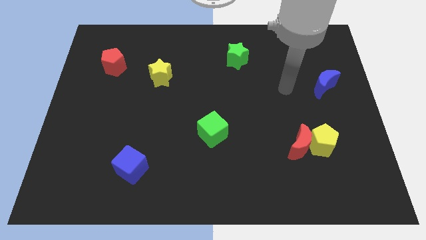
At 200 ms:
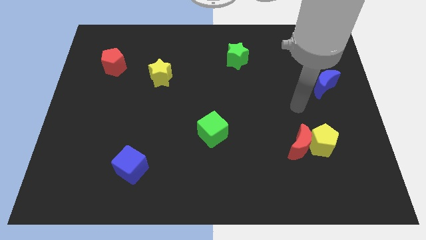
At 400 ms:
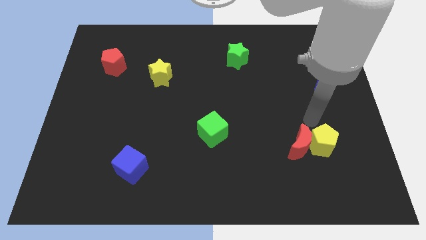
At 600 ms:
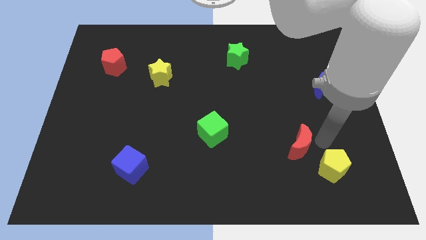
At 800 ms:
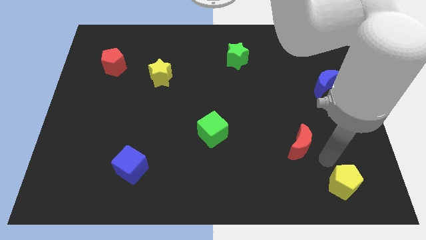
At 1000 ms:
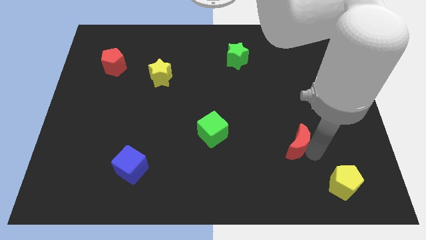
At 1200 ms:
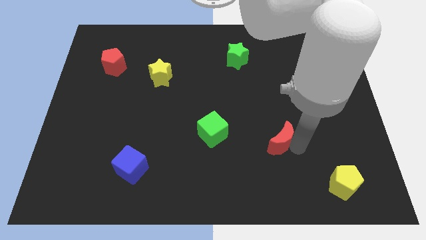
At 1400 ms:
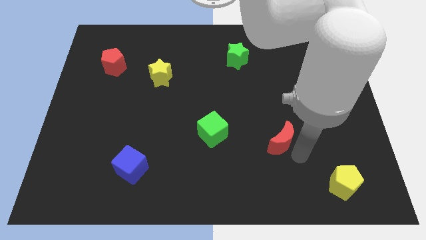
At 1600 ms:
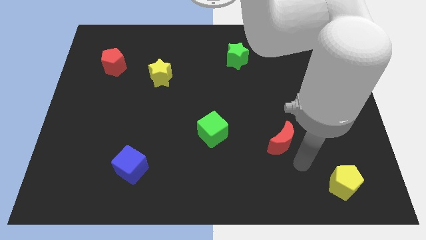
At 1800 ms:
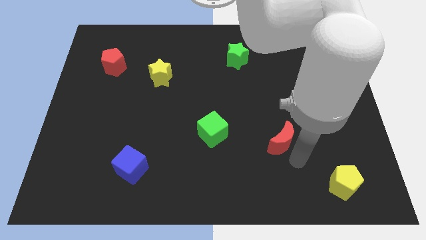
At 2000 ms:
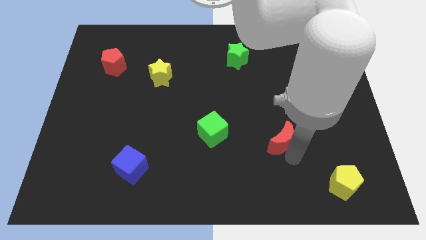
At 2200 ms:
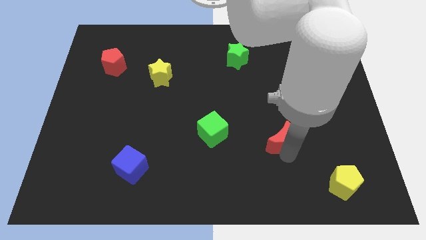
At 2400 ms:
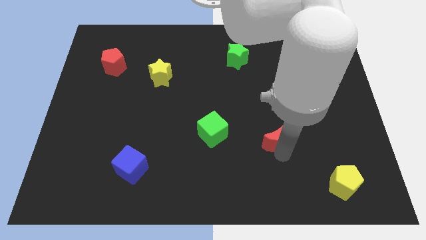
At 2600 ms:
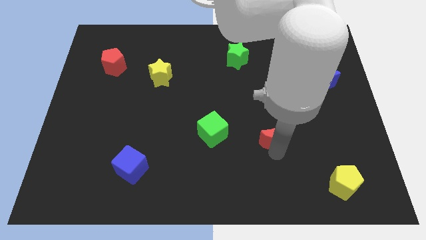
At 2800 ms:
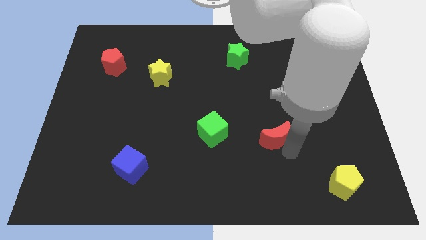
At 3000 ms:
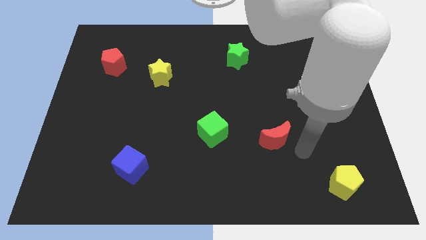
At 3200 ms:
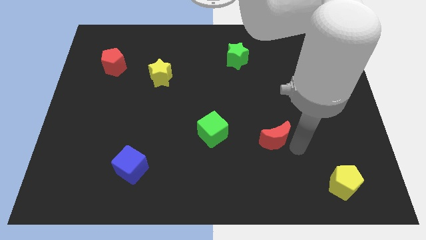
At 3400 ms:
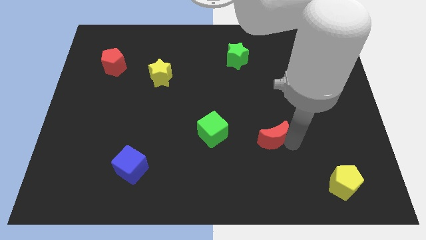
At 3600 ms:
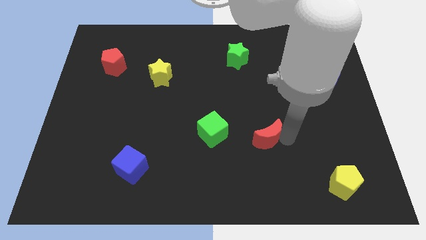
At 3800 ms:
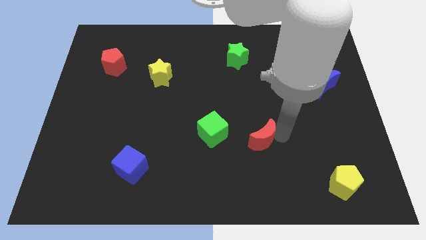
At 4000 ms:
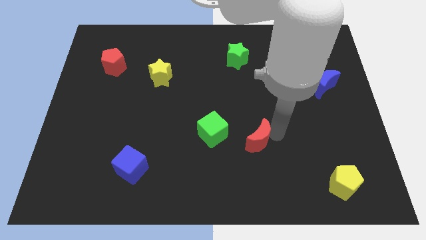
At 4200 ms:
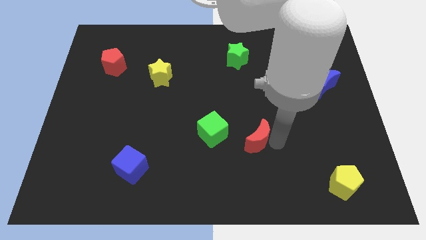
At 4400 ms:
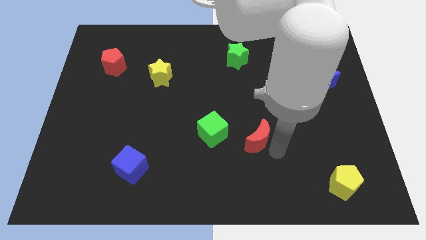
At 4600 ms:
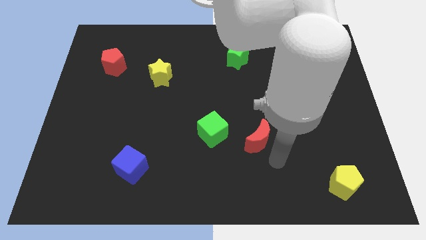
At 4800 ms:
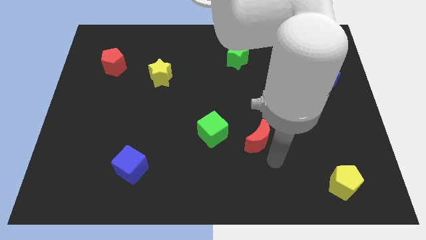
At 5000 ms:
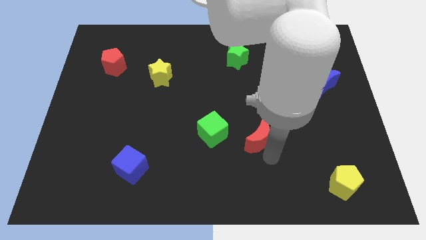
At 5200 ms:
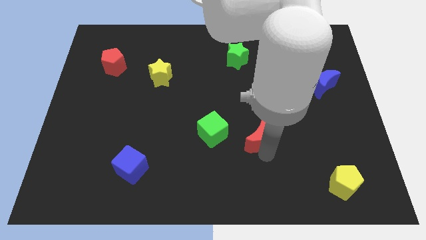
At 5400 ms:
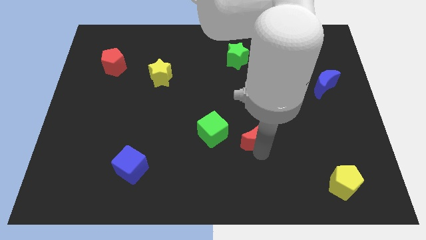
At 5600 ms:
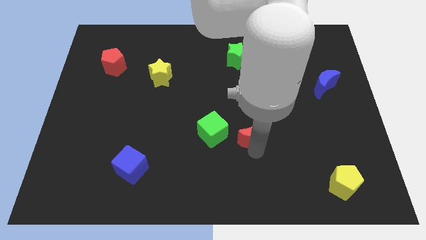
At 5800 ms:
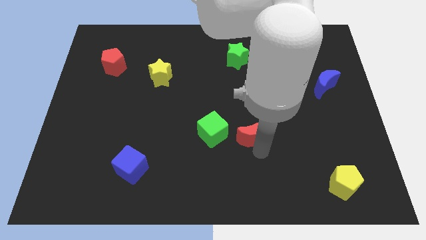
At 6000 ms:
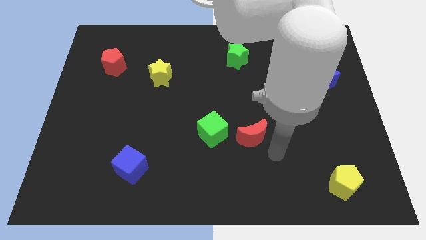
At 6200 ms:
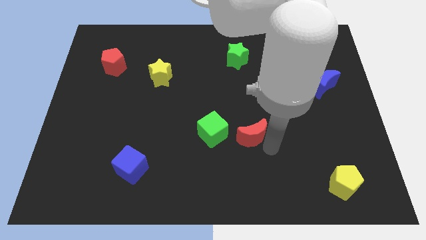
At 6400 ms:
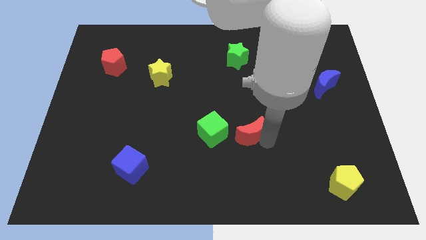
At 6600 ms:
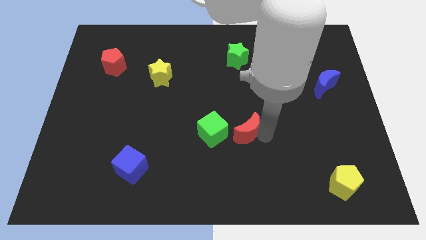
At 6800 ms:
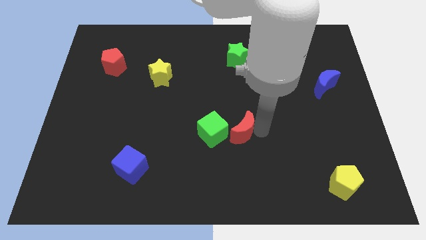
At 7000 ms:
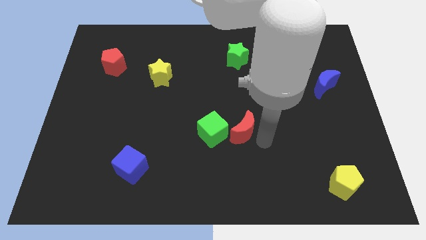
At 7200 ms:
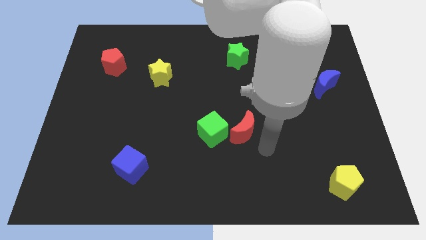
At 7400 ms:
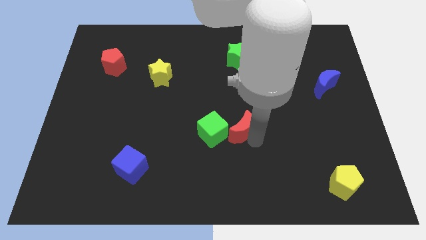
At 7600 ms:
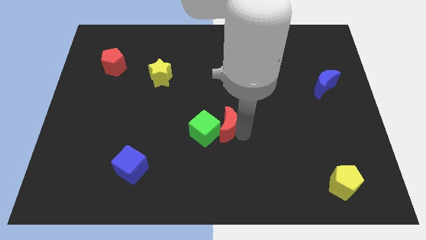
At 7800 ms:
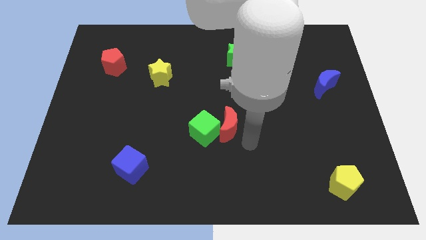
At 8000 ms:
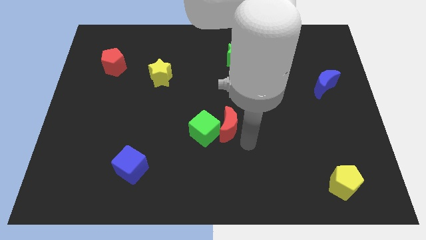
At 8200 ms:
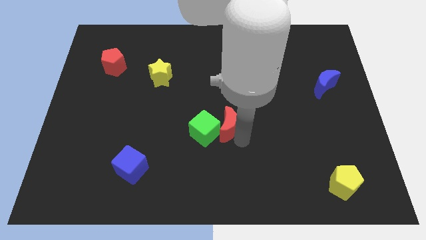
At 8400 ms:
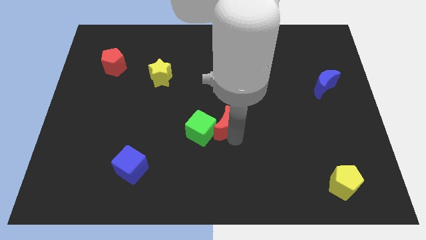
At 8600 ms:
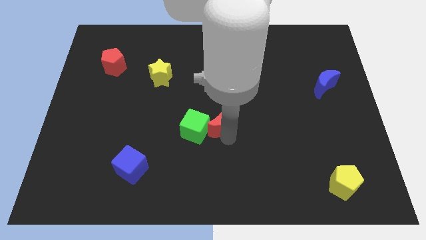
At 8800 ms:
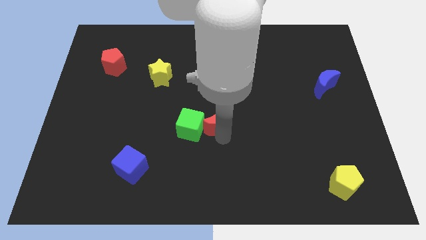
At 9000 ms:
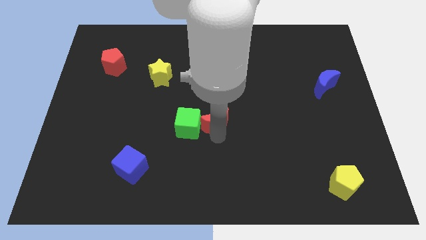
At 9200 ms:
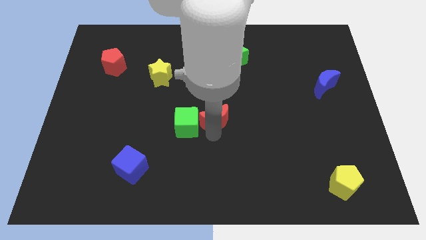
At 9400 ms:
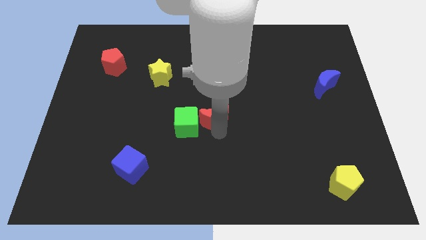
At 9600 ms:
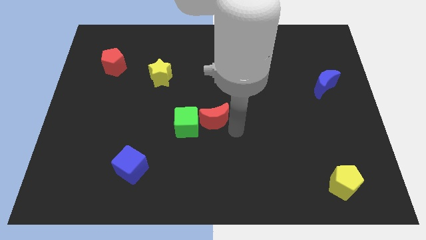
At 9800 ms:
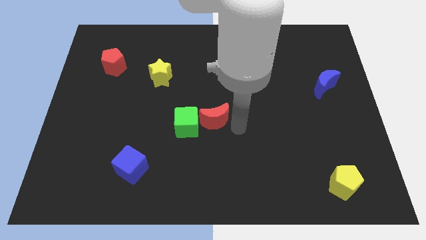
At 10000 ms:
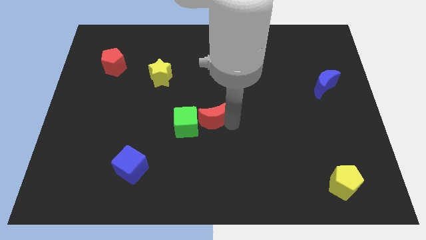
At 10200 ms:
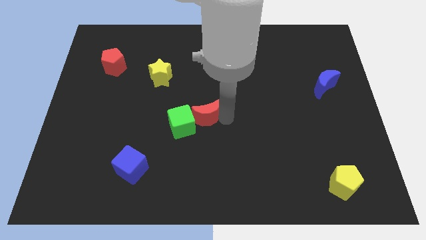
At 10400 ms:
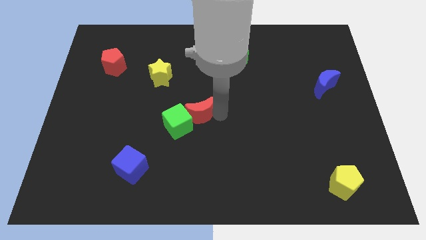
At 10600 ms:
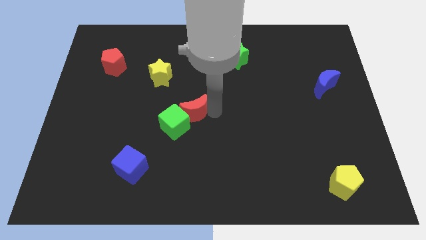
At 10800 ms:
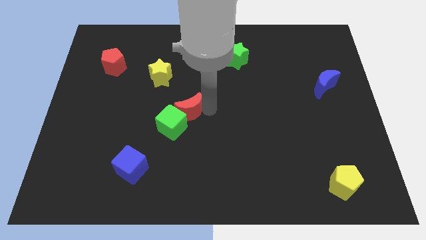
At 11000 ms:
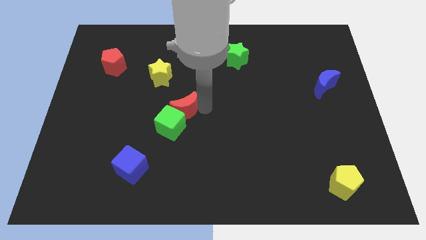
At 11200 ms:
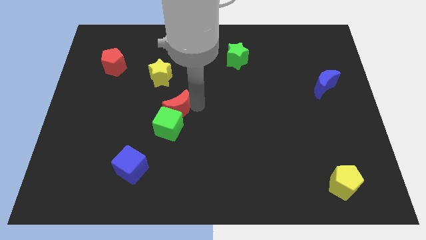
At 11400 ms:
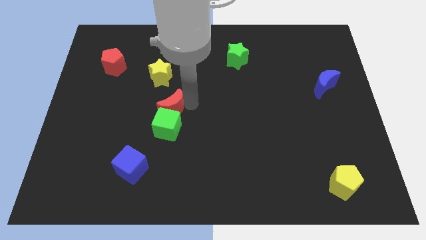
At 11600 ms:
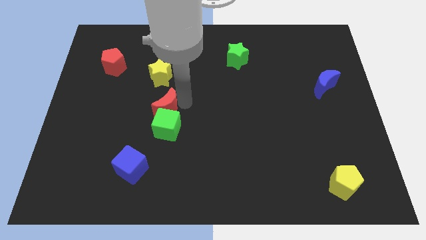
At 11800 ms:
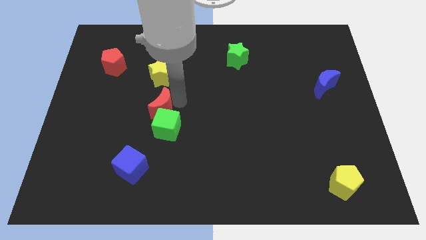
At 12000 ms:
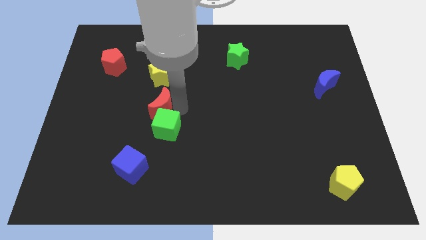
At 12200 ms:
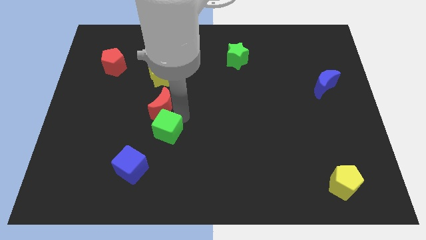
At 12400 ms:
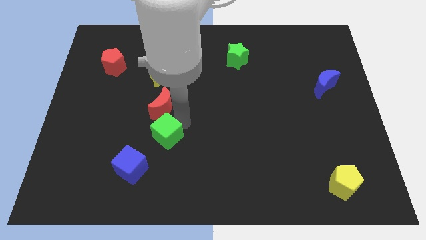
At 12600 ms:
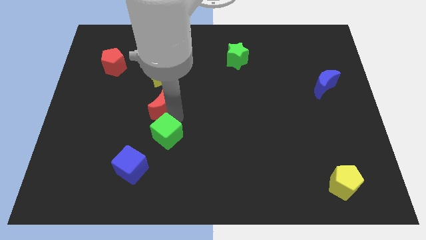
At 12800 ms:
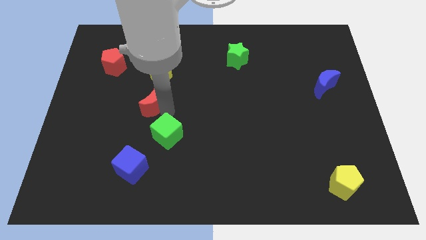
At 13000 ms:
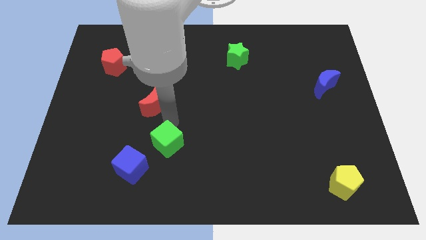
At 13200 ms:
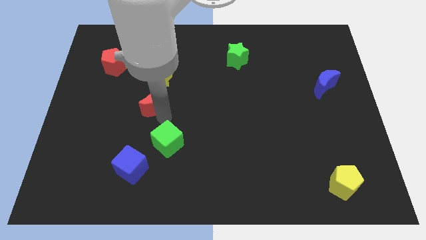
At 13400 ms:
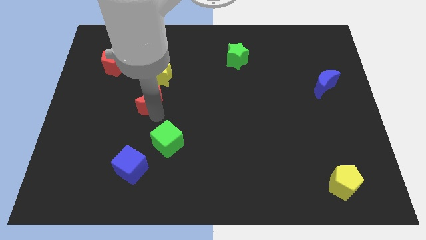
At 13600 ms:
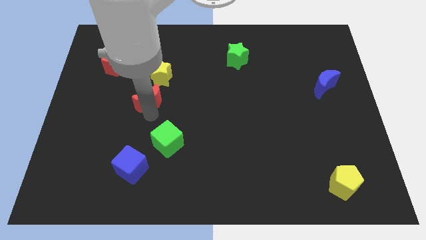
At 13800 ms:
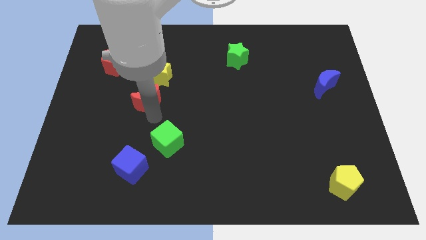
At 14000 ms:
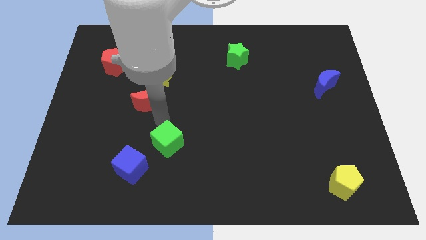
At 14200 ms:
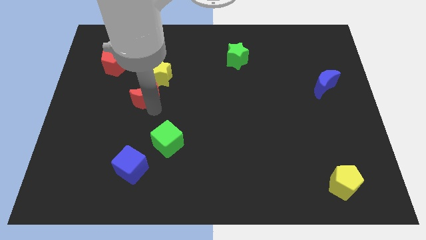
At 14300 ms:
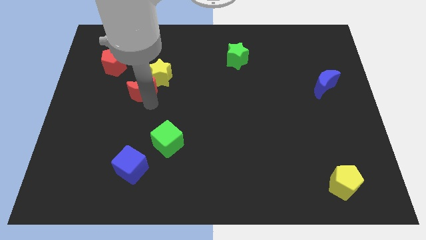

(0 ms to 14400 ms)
slide the red moon diagonally down and to the right of the red pentagon
